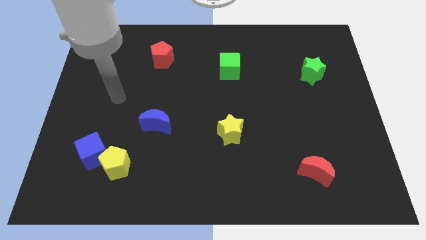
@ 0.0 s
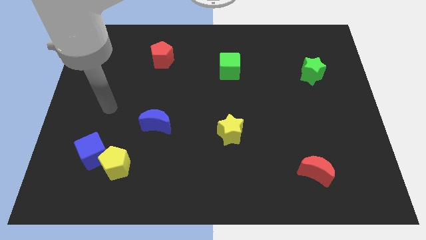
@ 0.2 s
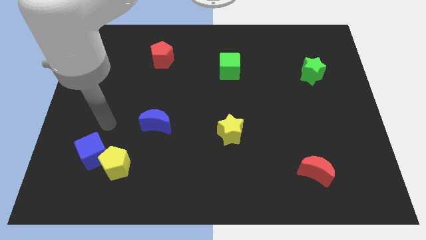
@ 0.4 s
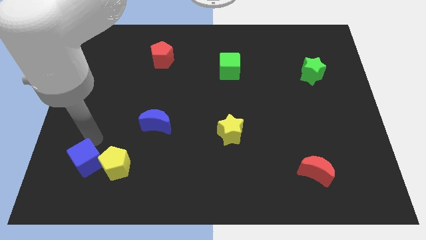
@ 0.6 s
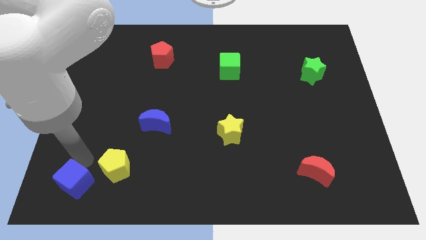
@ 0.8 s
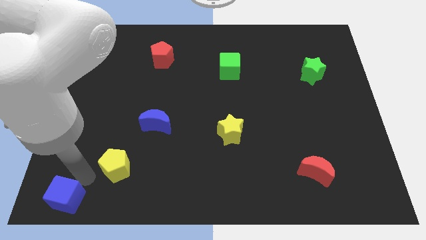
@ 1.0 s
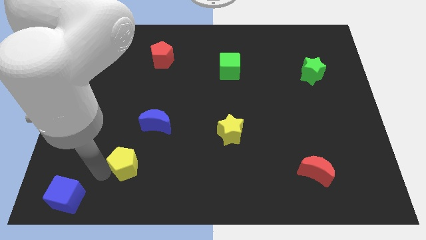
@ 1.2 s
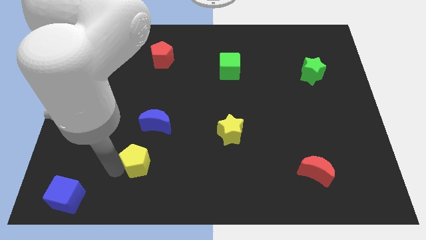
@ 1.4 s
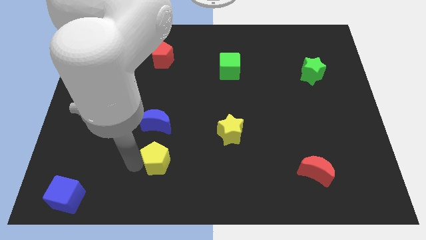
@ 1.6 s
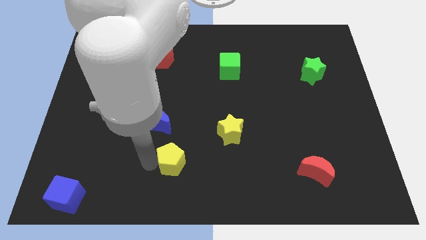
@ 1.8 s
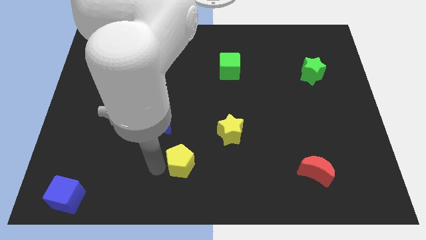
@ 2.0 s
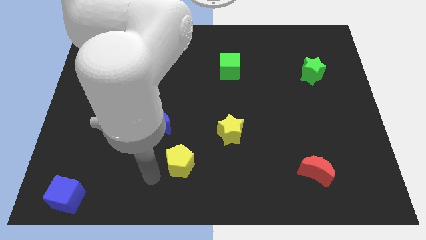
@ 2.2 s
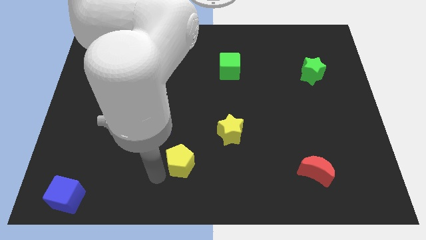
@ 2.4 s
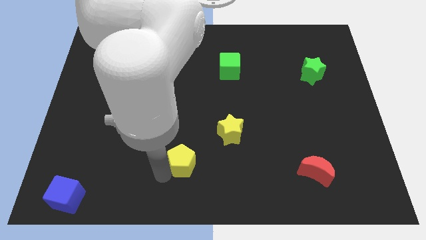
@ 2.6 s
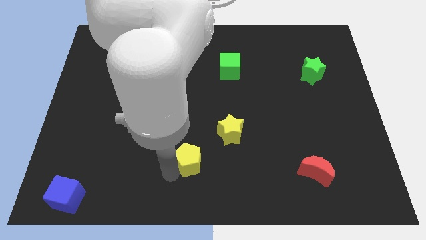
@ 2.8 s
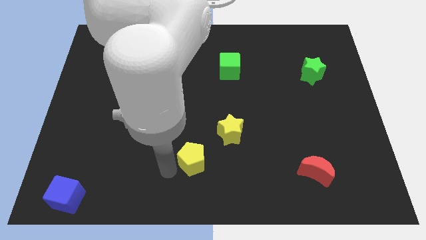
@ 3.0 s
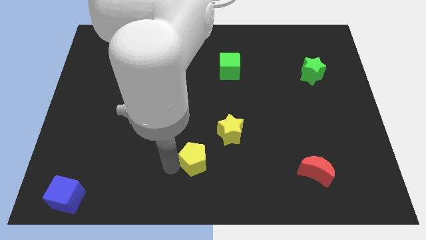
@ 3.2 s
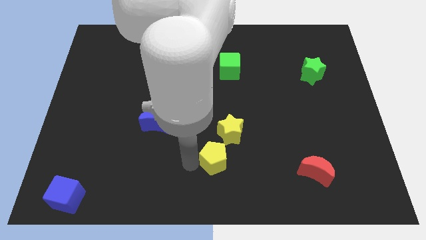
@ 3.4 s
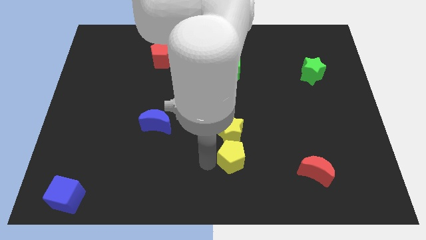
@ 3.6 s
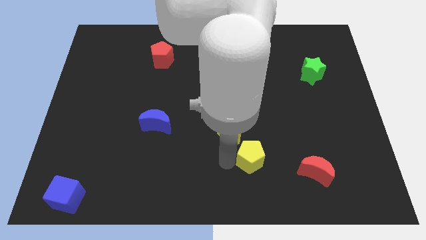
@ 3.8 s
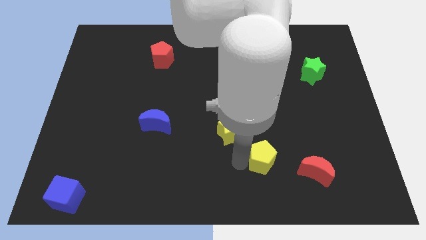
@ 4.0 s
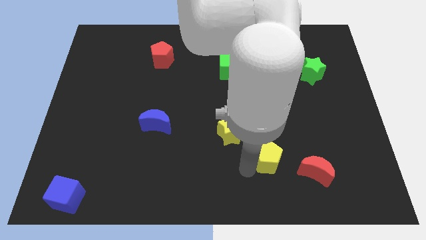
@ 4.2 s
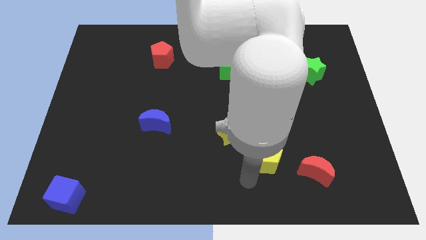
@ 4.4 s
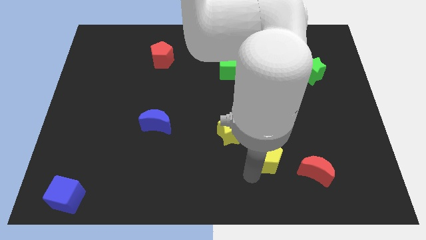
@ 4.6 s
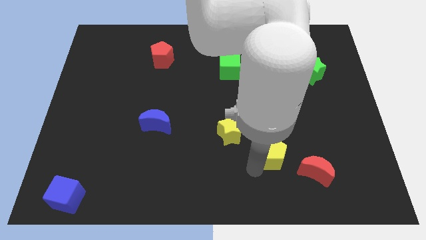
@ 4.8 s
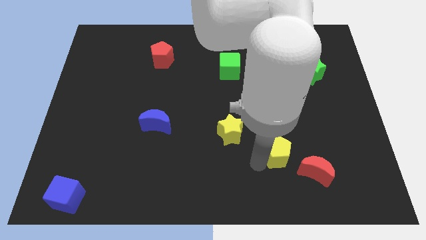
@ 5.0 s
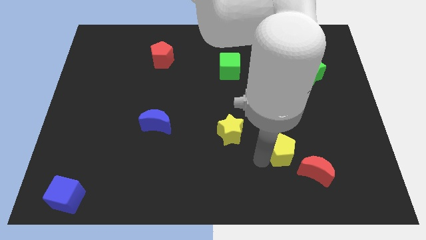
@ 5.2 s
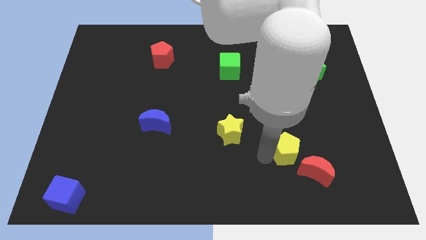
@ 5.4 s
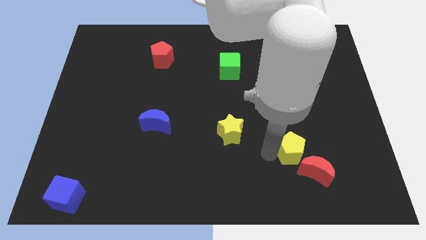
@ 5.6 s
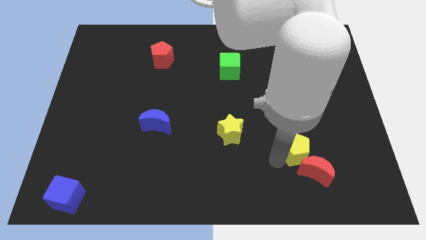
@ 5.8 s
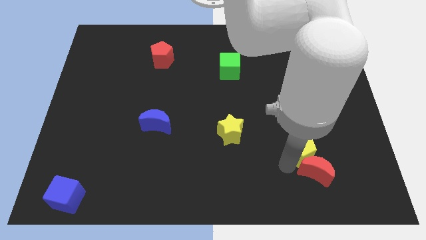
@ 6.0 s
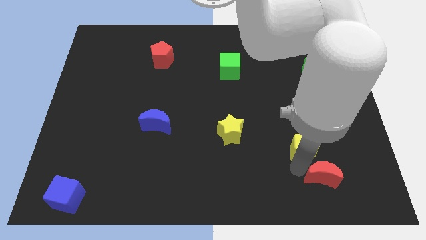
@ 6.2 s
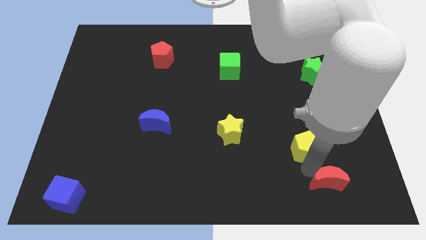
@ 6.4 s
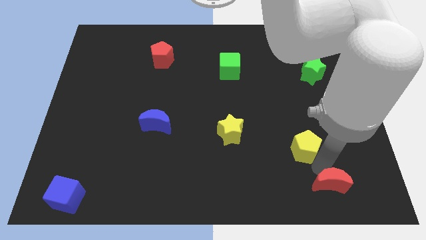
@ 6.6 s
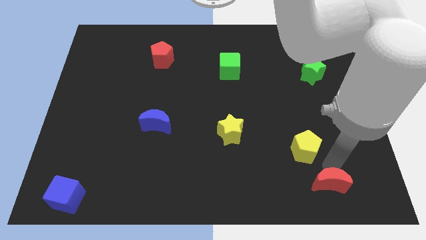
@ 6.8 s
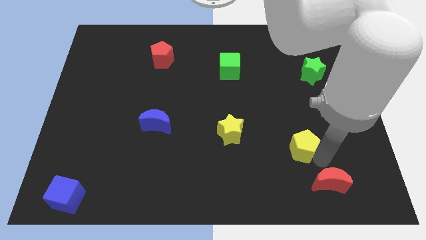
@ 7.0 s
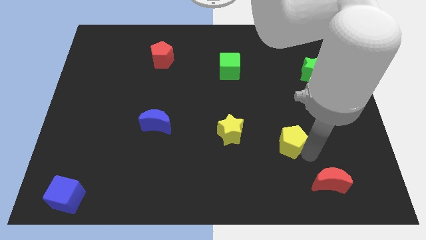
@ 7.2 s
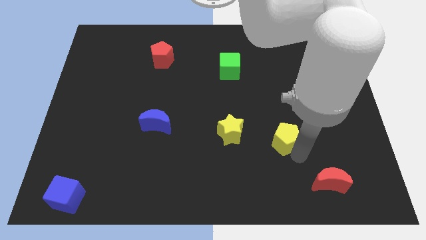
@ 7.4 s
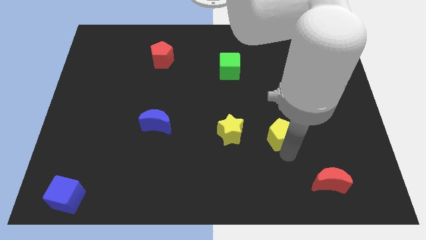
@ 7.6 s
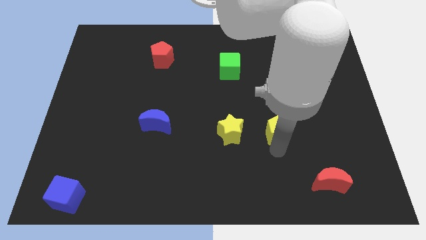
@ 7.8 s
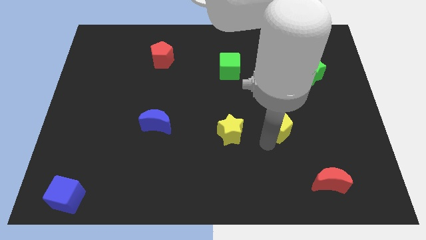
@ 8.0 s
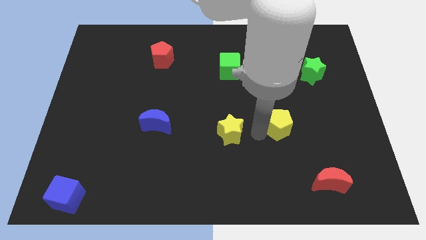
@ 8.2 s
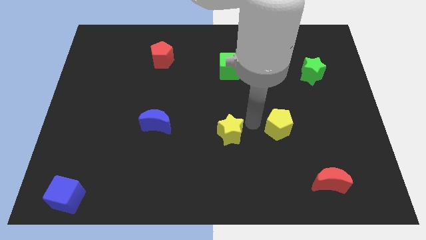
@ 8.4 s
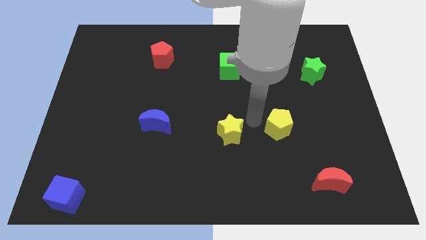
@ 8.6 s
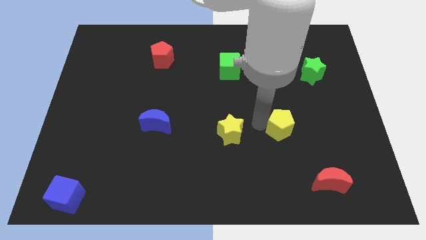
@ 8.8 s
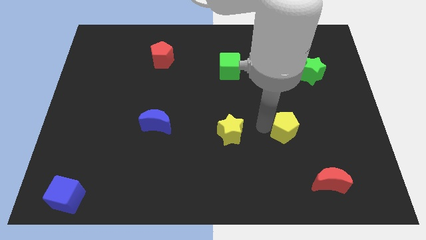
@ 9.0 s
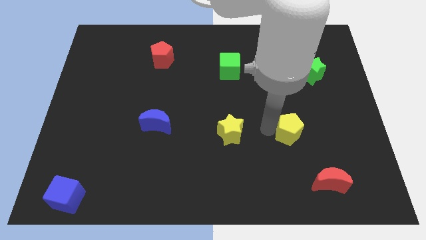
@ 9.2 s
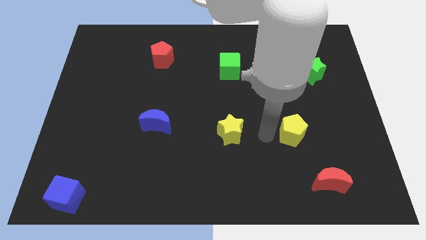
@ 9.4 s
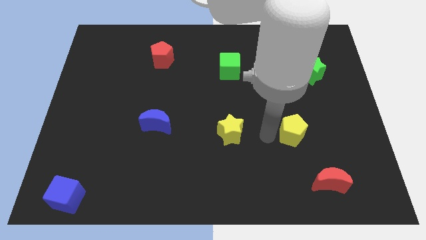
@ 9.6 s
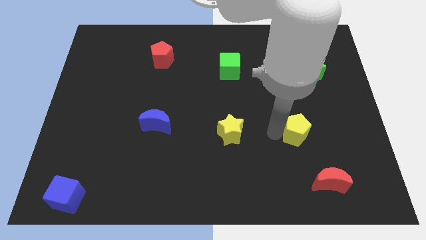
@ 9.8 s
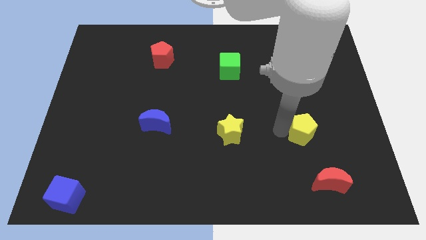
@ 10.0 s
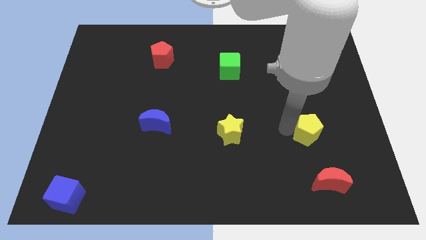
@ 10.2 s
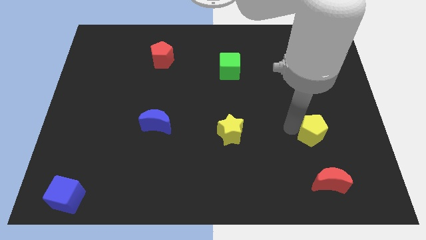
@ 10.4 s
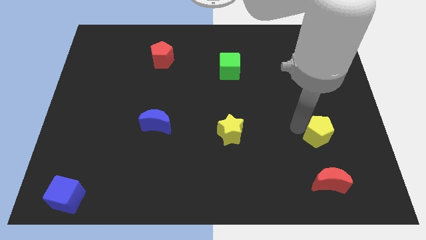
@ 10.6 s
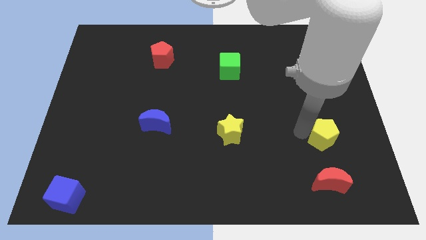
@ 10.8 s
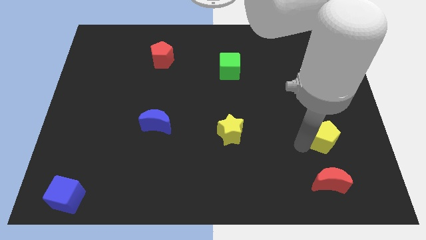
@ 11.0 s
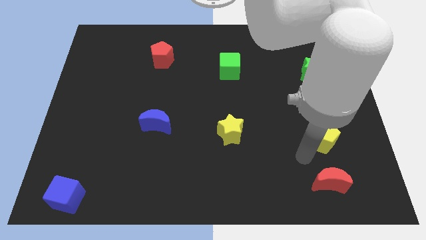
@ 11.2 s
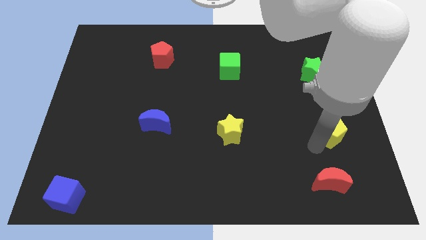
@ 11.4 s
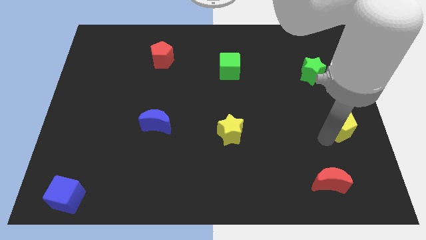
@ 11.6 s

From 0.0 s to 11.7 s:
move the yellow pentagon to the right side

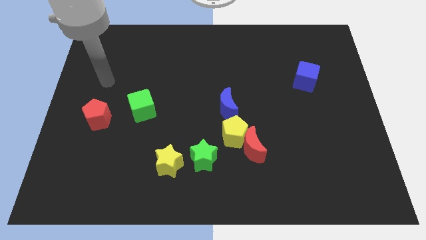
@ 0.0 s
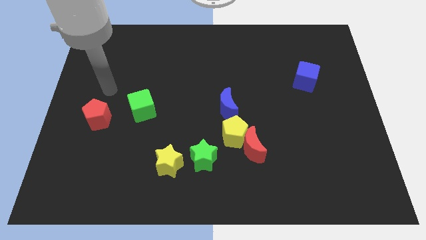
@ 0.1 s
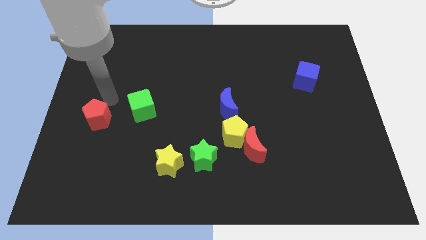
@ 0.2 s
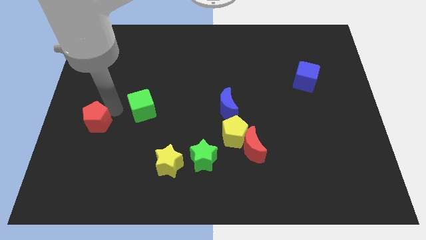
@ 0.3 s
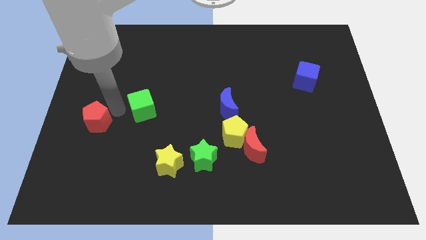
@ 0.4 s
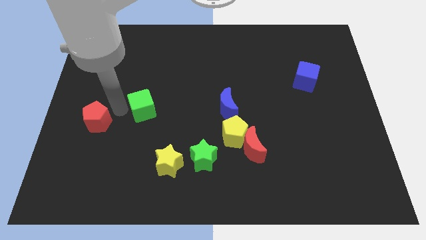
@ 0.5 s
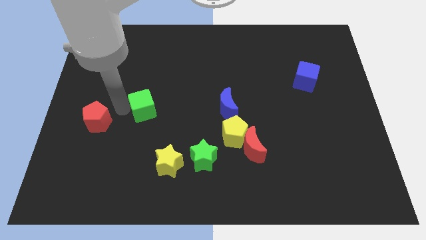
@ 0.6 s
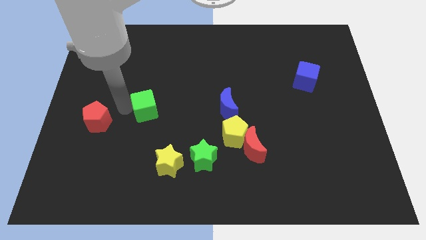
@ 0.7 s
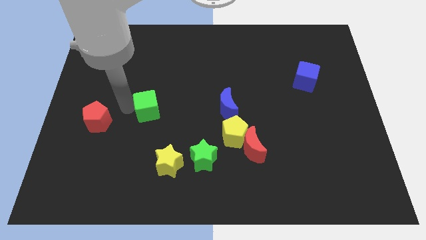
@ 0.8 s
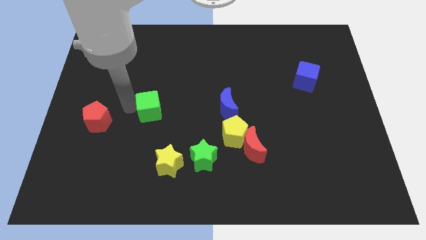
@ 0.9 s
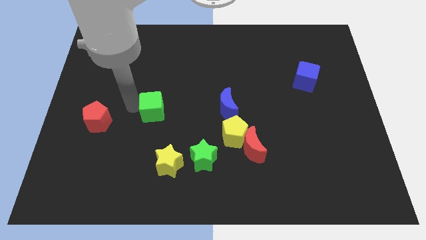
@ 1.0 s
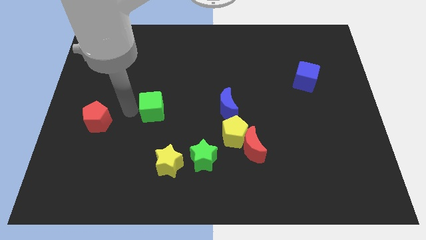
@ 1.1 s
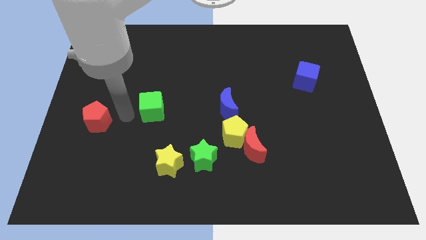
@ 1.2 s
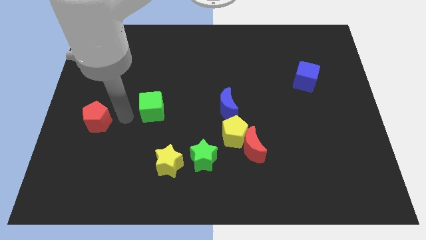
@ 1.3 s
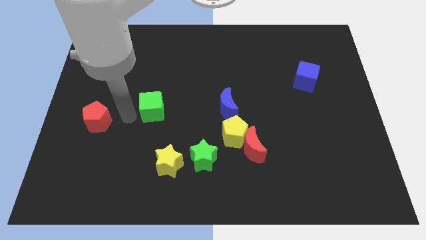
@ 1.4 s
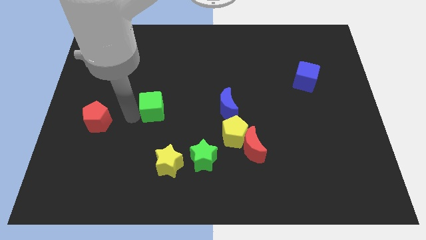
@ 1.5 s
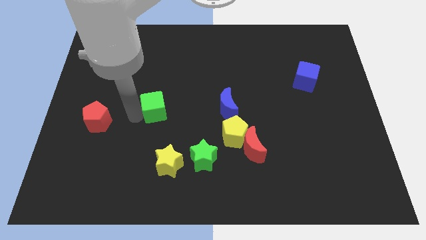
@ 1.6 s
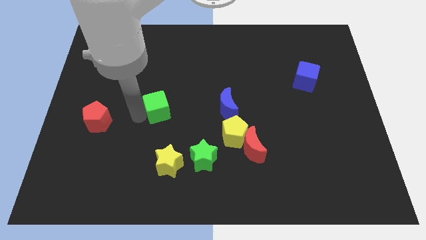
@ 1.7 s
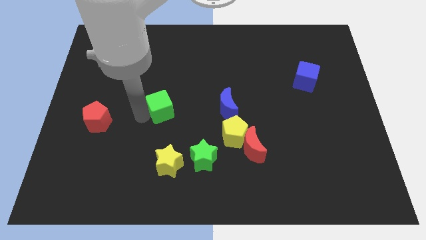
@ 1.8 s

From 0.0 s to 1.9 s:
move the green cube to the center of the board
